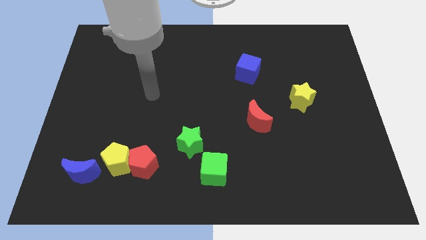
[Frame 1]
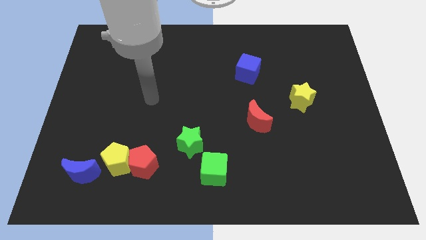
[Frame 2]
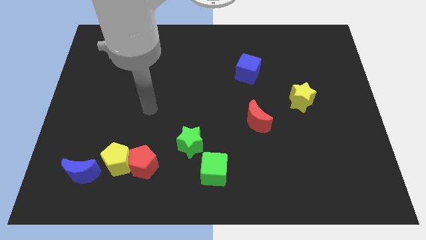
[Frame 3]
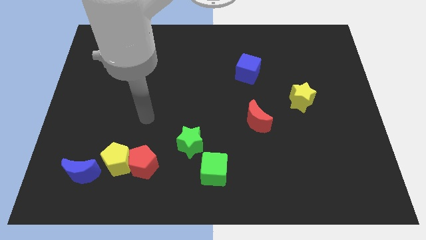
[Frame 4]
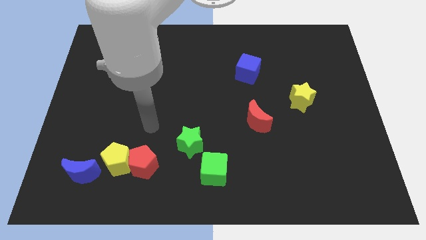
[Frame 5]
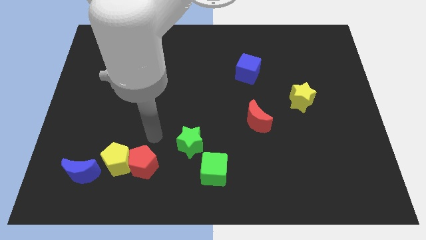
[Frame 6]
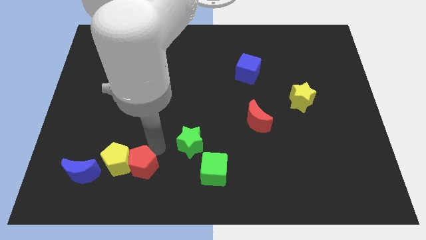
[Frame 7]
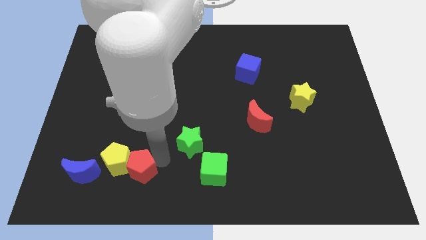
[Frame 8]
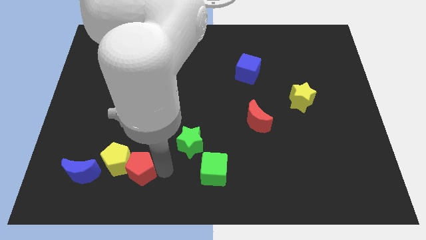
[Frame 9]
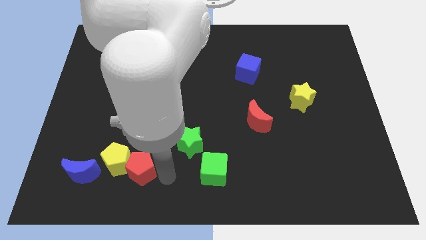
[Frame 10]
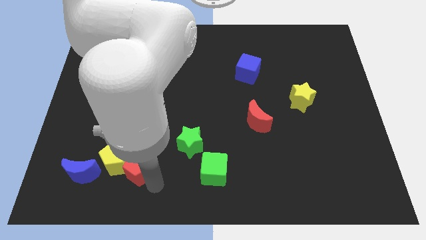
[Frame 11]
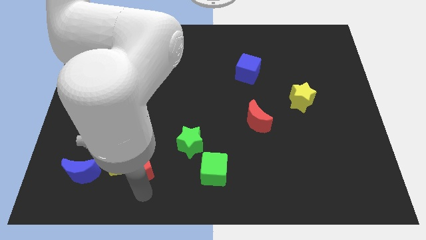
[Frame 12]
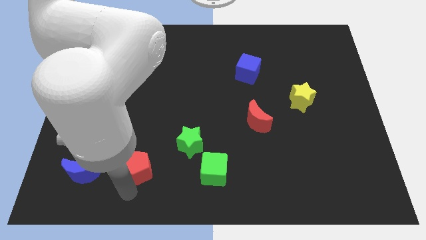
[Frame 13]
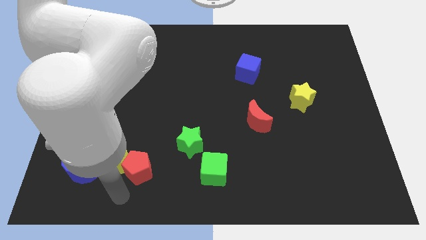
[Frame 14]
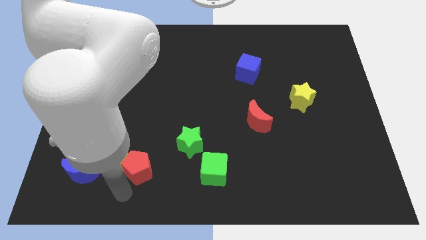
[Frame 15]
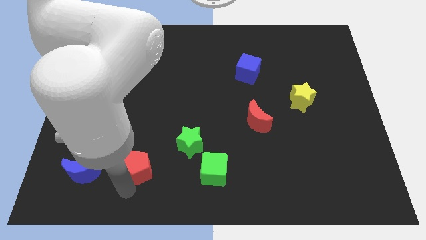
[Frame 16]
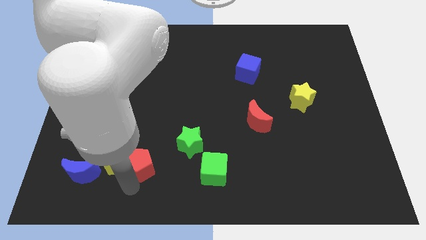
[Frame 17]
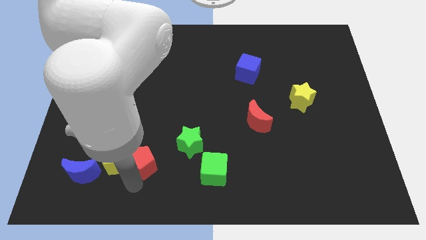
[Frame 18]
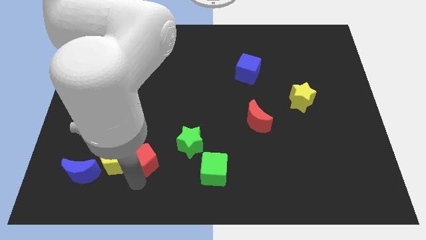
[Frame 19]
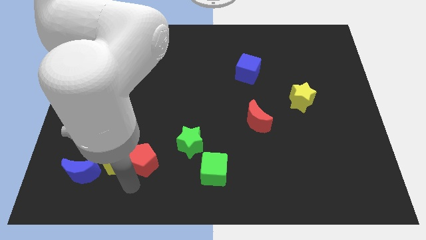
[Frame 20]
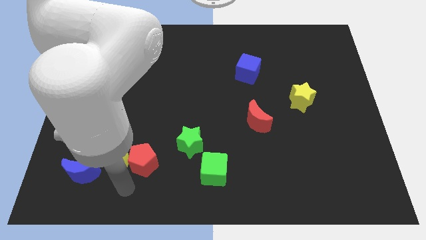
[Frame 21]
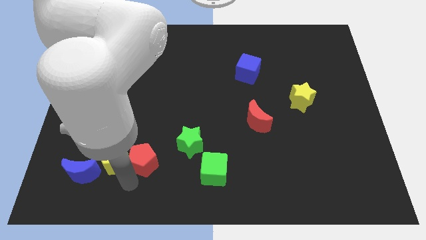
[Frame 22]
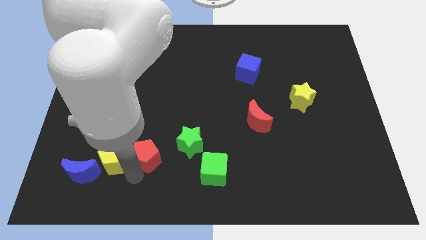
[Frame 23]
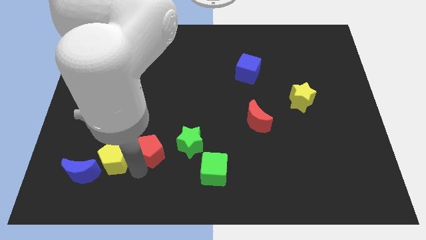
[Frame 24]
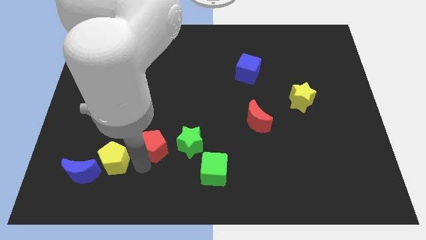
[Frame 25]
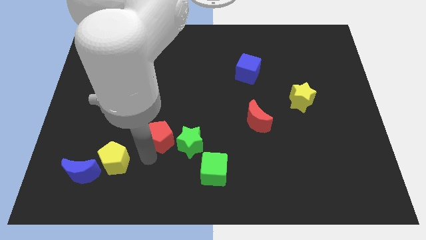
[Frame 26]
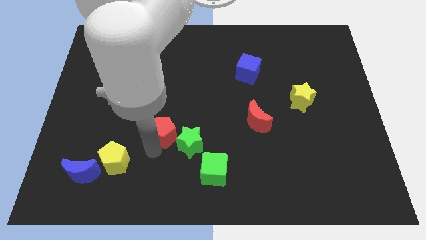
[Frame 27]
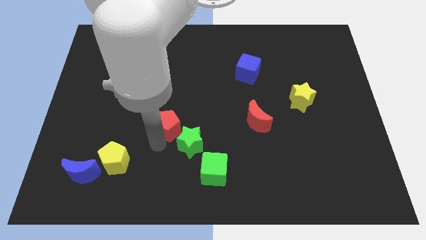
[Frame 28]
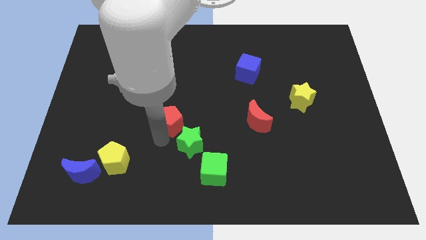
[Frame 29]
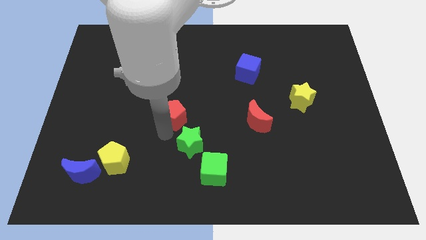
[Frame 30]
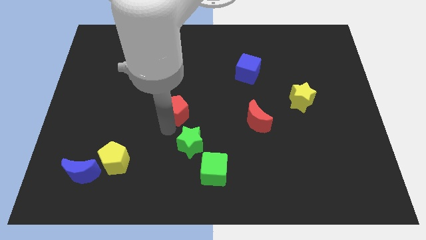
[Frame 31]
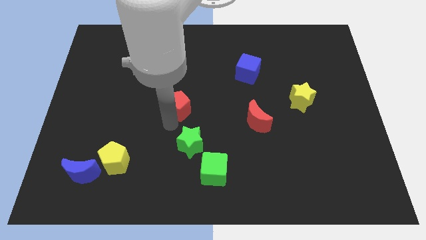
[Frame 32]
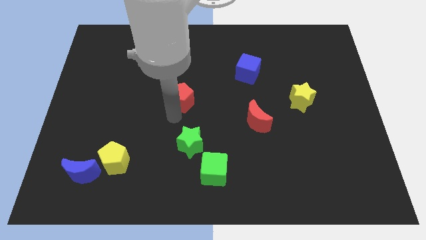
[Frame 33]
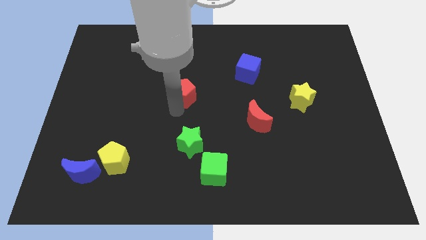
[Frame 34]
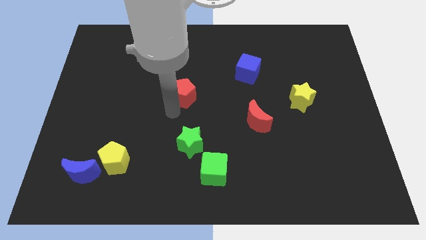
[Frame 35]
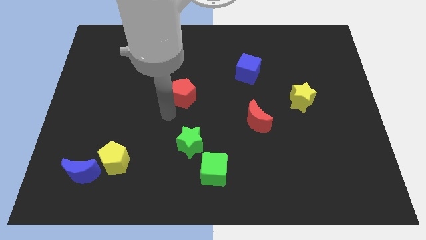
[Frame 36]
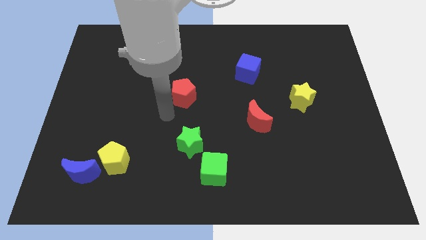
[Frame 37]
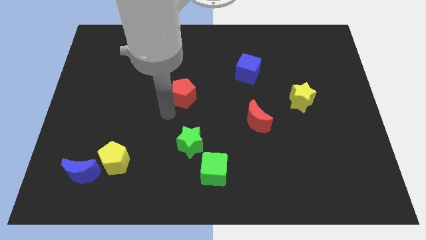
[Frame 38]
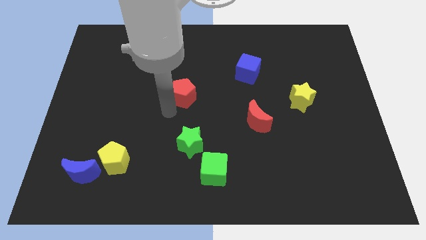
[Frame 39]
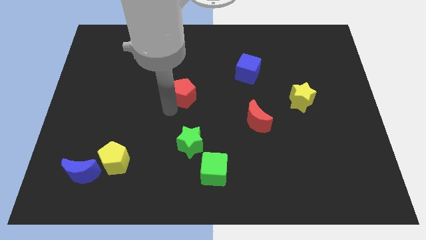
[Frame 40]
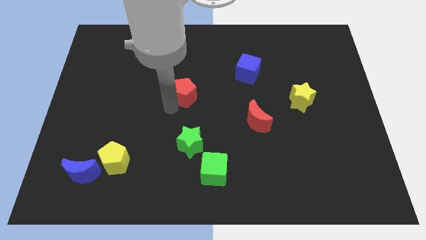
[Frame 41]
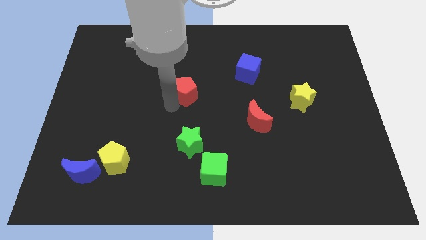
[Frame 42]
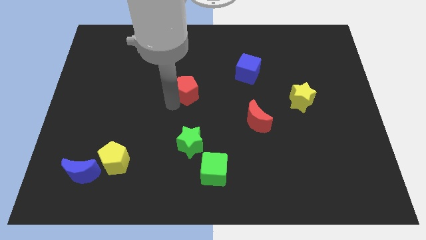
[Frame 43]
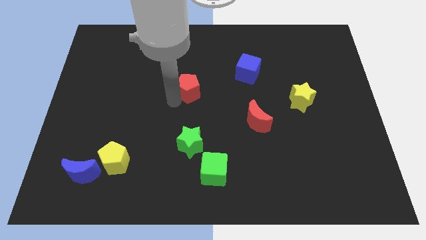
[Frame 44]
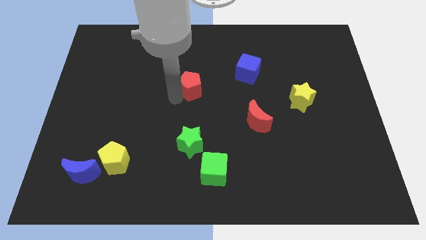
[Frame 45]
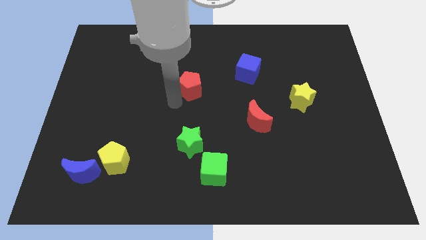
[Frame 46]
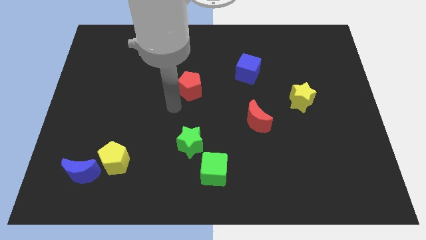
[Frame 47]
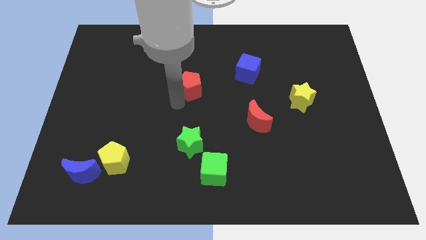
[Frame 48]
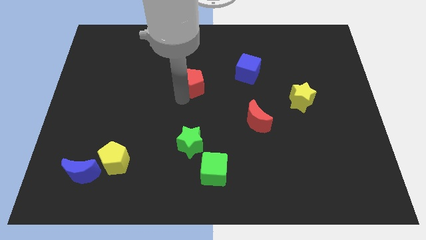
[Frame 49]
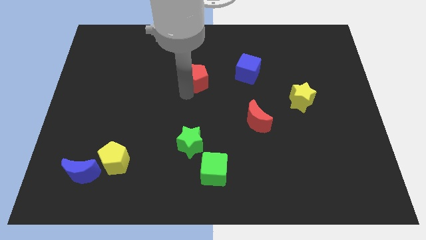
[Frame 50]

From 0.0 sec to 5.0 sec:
move the red pentagon just left of the blue cube

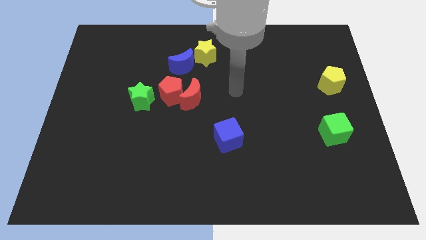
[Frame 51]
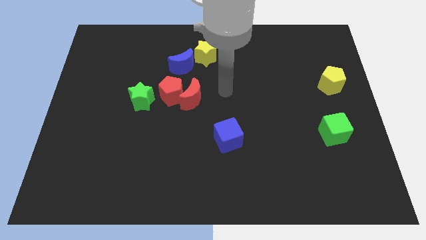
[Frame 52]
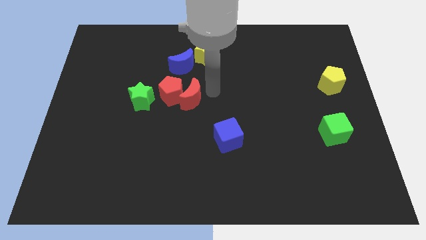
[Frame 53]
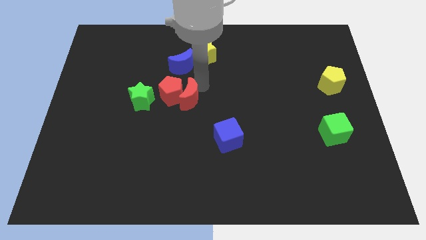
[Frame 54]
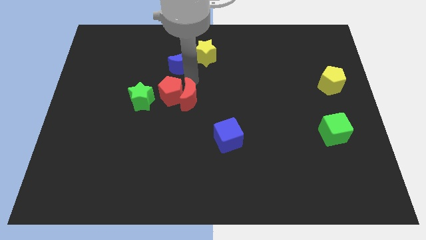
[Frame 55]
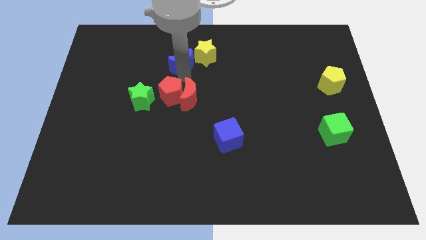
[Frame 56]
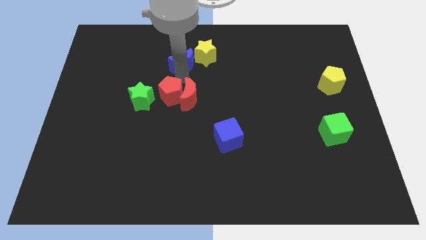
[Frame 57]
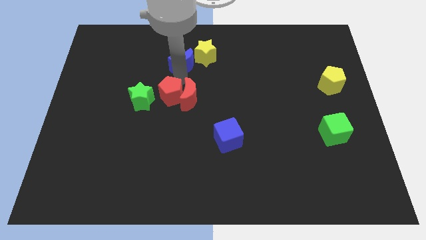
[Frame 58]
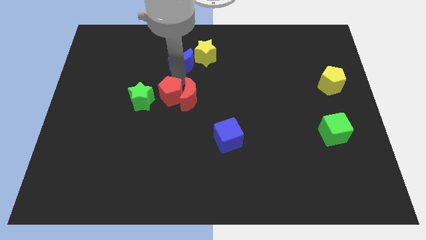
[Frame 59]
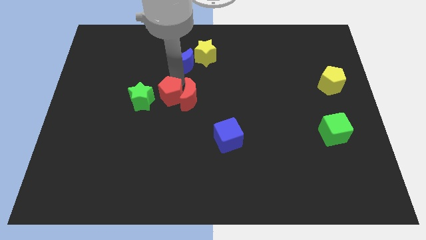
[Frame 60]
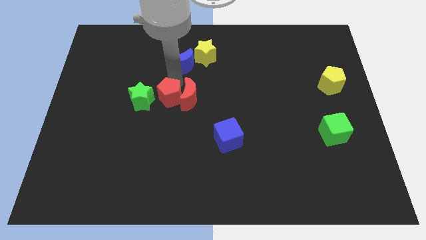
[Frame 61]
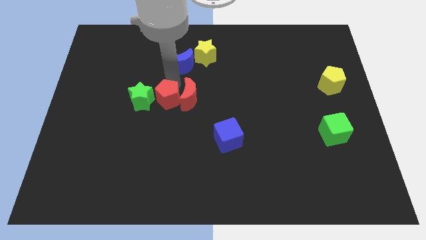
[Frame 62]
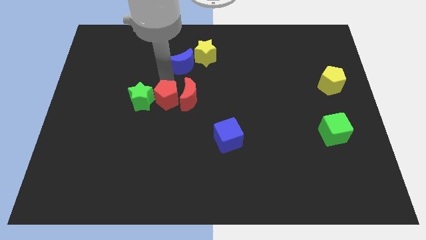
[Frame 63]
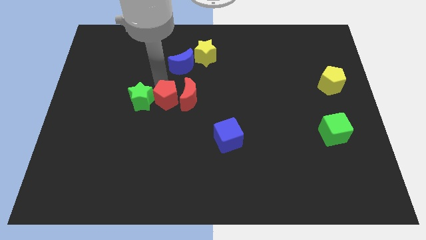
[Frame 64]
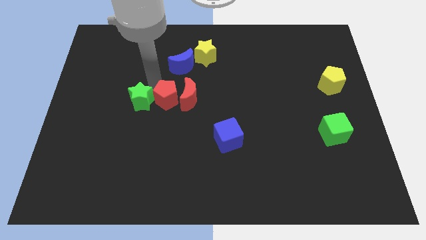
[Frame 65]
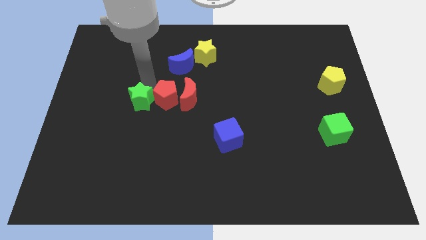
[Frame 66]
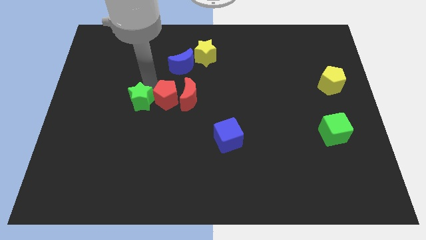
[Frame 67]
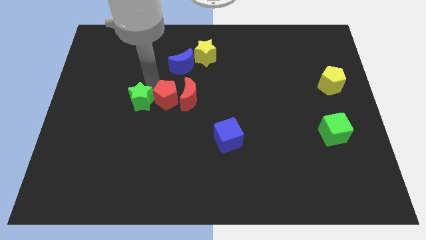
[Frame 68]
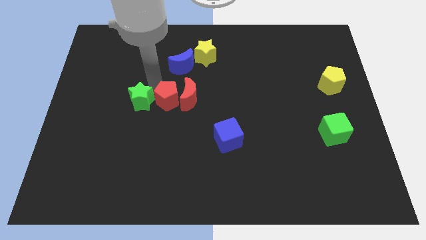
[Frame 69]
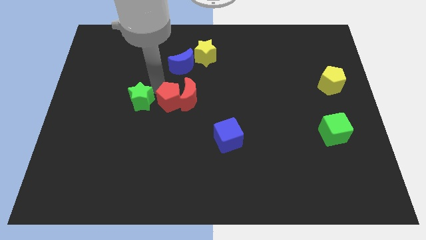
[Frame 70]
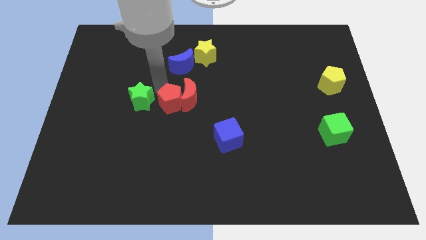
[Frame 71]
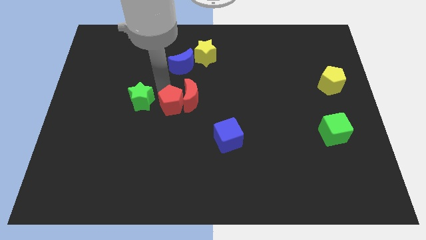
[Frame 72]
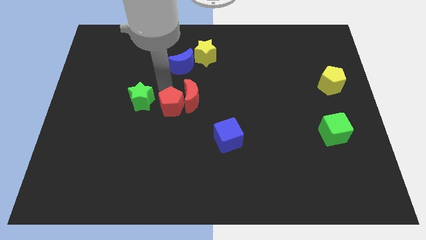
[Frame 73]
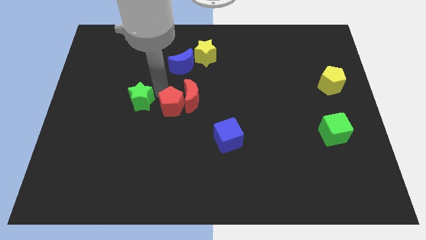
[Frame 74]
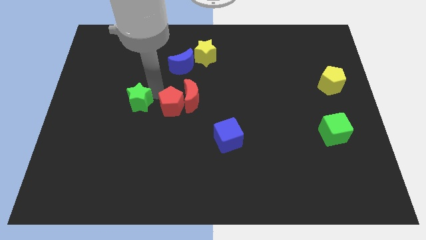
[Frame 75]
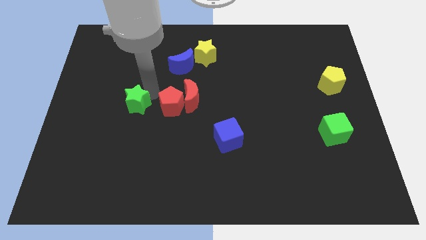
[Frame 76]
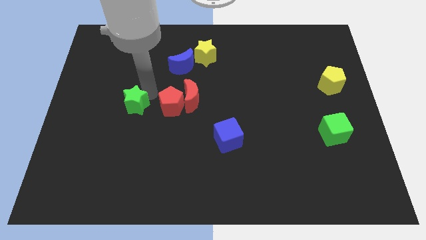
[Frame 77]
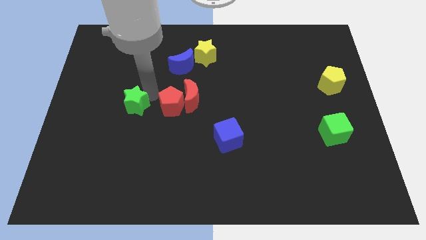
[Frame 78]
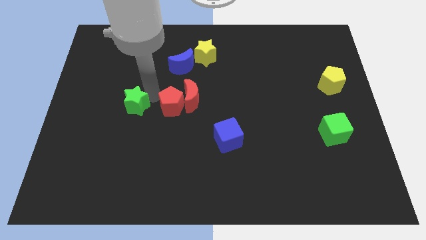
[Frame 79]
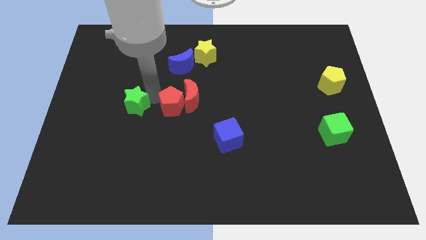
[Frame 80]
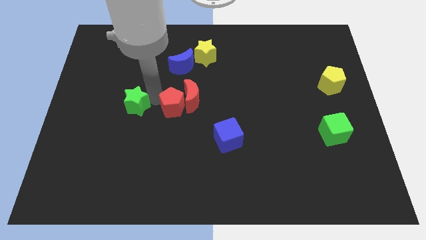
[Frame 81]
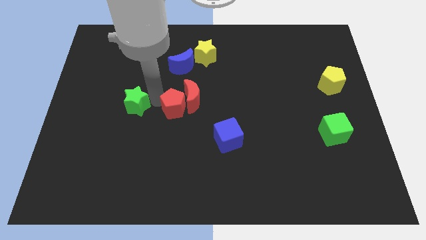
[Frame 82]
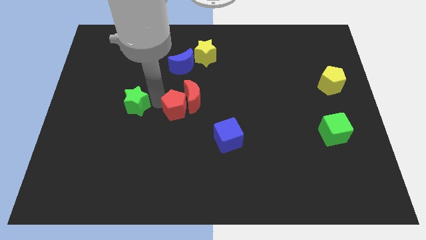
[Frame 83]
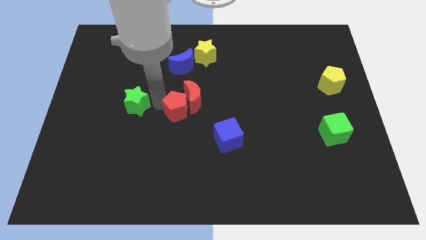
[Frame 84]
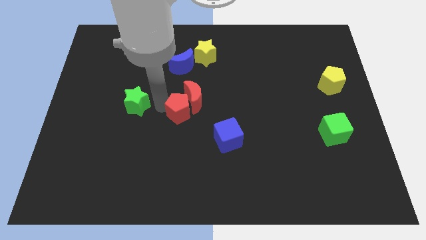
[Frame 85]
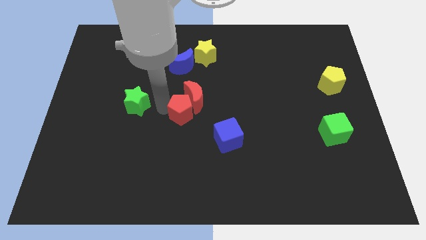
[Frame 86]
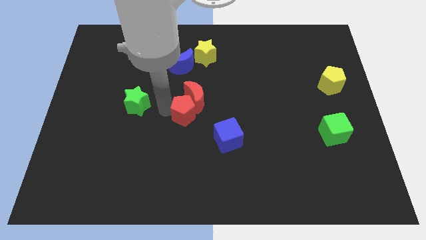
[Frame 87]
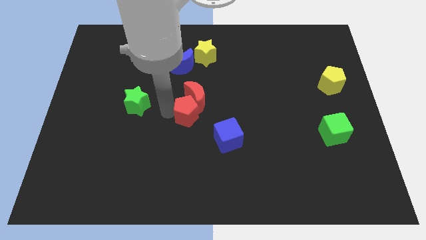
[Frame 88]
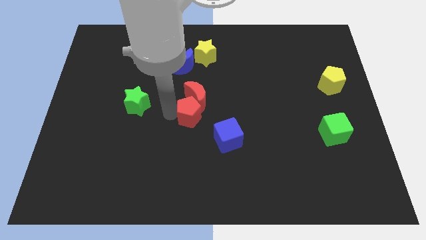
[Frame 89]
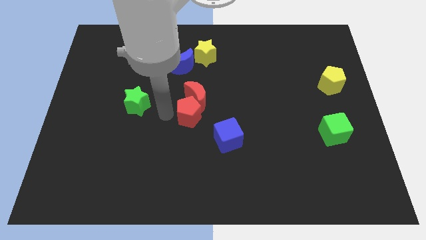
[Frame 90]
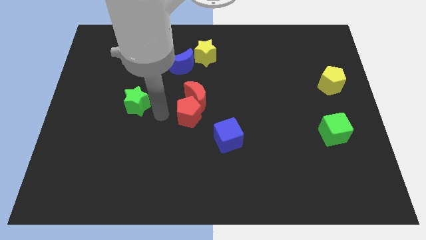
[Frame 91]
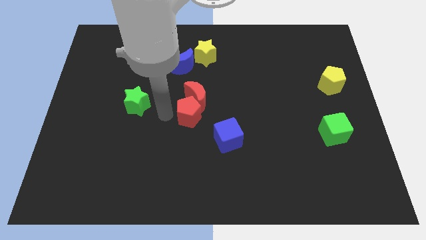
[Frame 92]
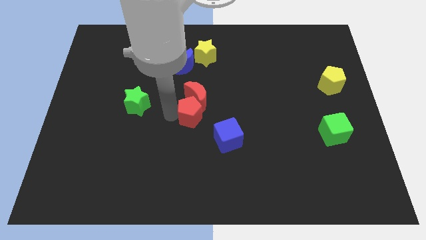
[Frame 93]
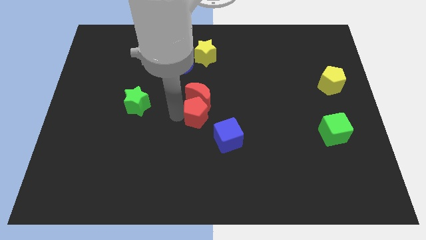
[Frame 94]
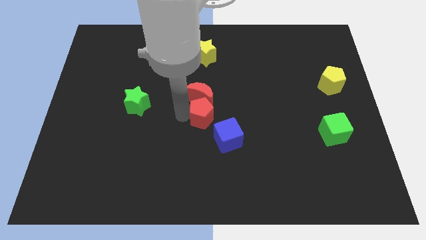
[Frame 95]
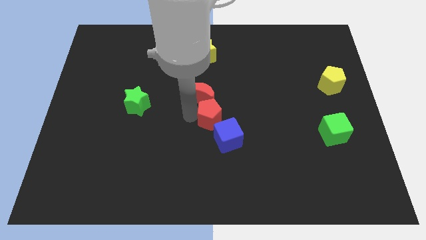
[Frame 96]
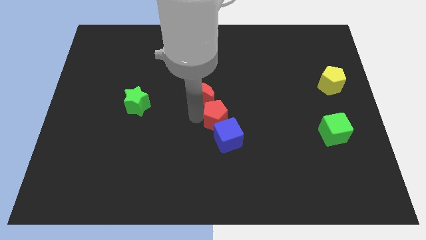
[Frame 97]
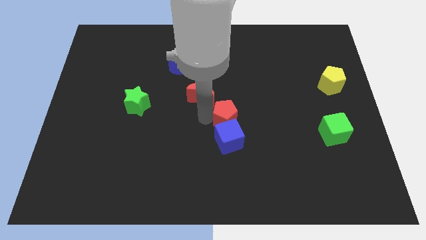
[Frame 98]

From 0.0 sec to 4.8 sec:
slide the red pentagon to the top right of the blue cube
